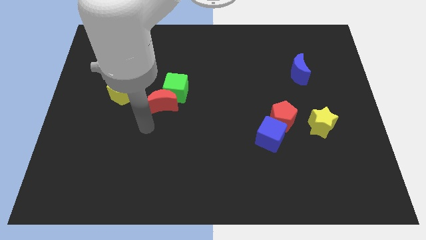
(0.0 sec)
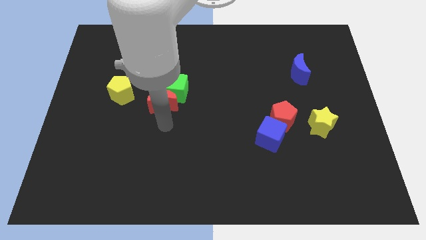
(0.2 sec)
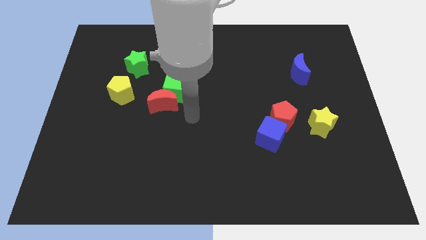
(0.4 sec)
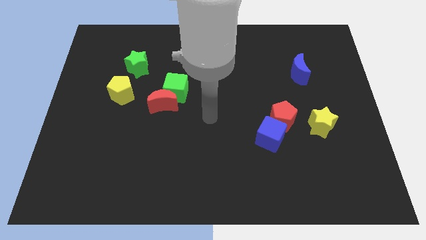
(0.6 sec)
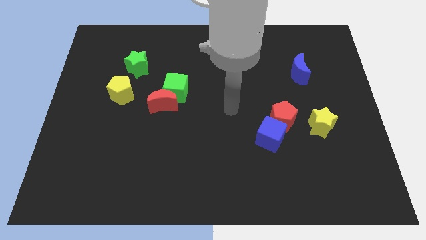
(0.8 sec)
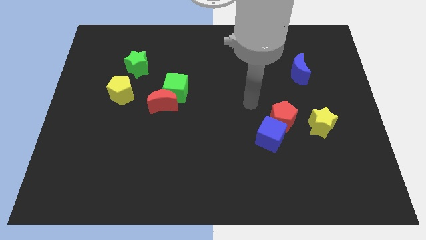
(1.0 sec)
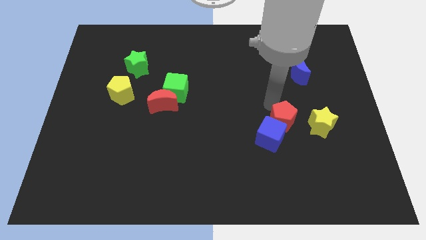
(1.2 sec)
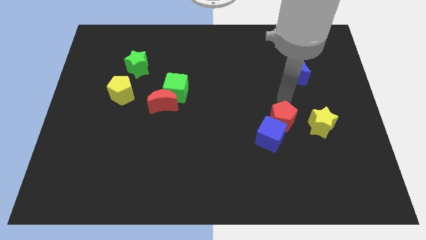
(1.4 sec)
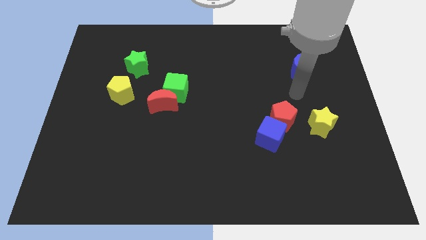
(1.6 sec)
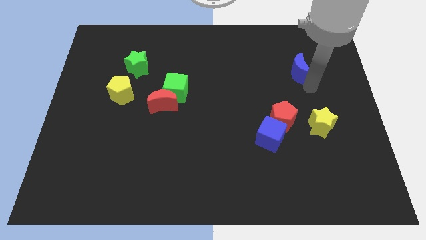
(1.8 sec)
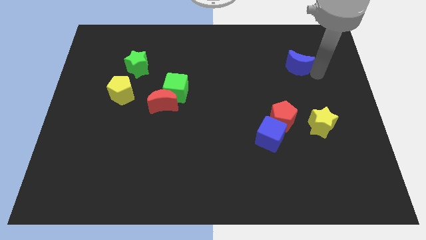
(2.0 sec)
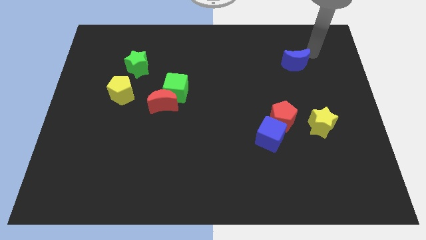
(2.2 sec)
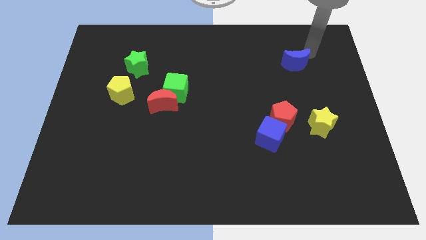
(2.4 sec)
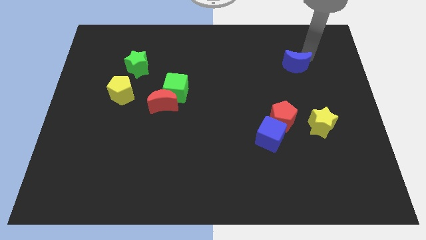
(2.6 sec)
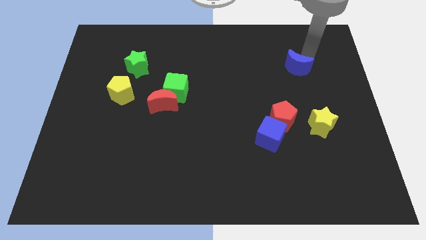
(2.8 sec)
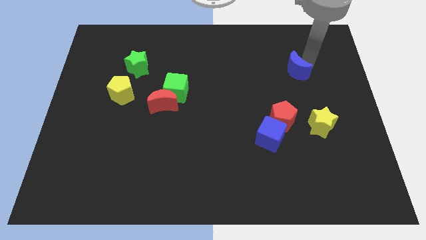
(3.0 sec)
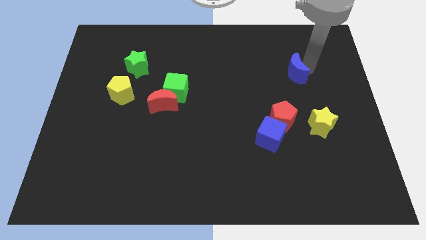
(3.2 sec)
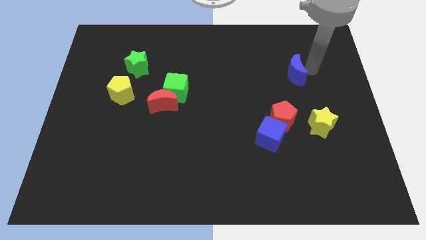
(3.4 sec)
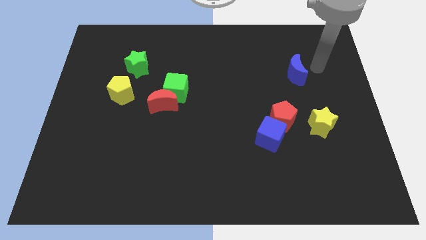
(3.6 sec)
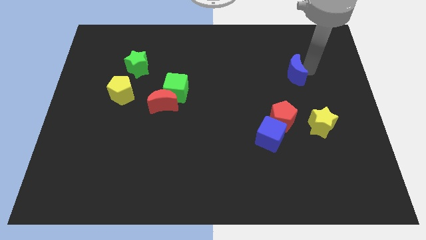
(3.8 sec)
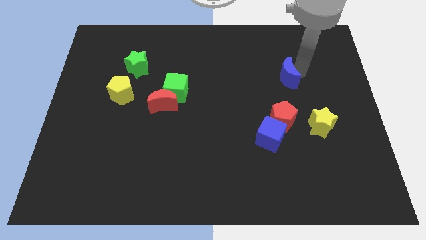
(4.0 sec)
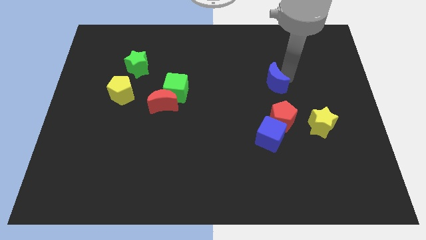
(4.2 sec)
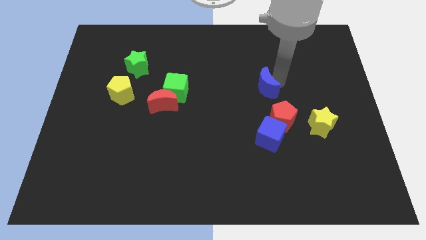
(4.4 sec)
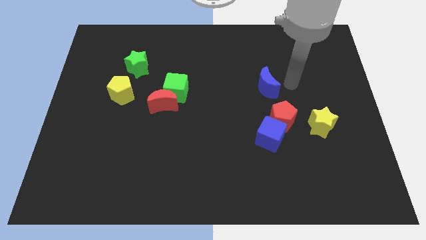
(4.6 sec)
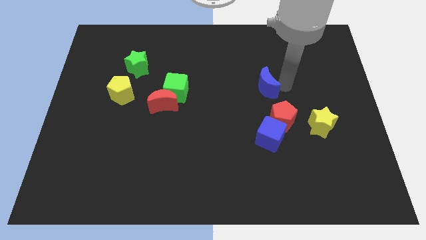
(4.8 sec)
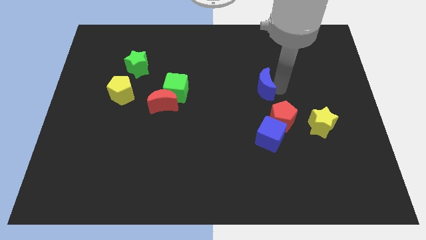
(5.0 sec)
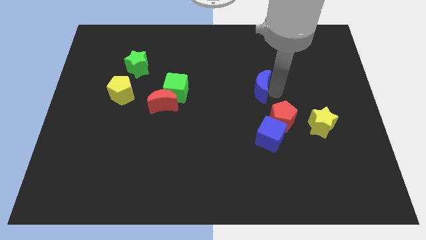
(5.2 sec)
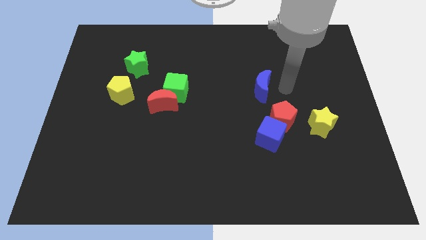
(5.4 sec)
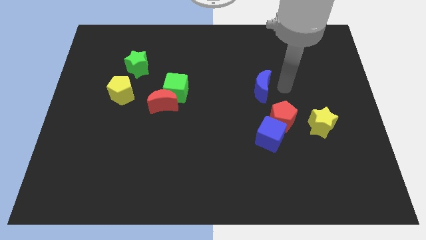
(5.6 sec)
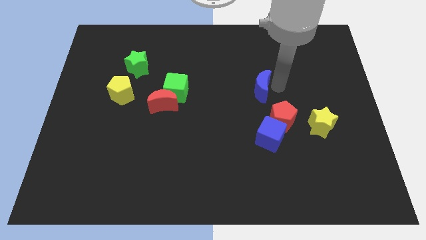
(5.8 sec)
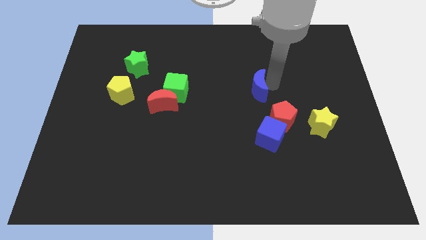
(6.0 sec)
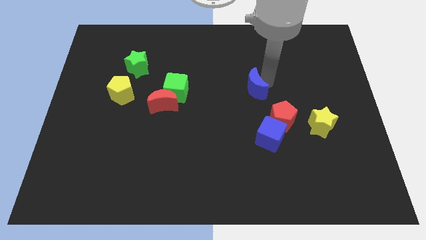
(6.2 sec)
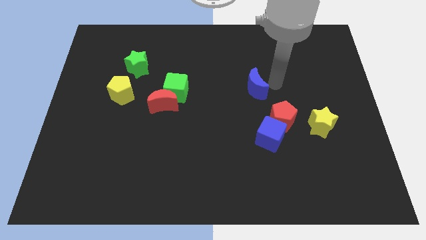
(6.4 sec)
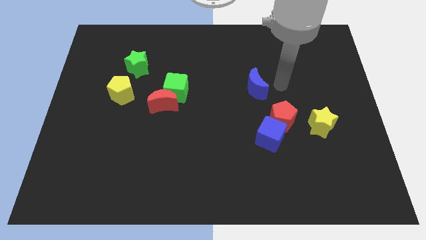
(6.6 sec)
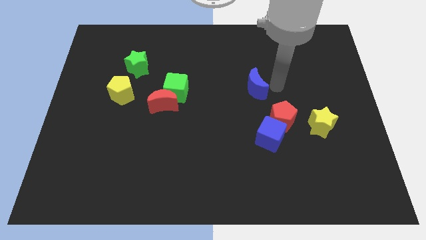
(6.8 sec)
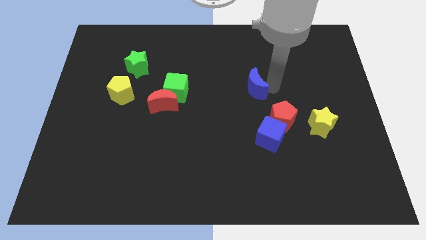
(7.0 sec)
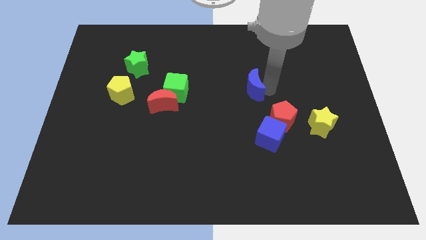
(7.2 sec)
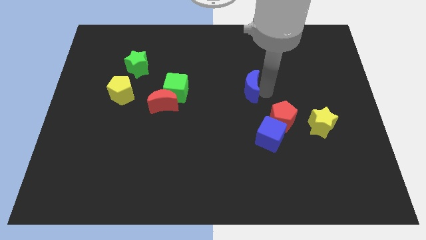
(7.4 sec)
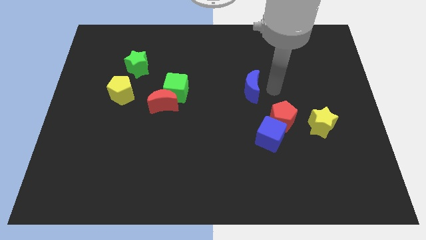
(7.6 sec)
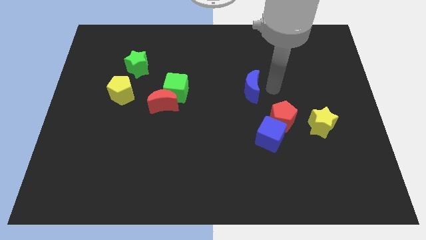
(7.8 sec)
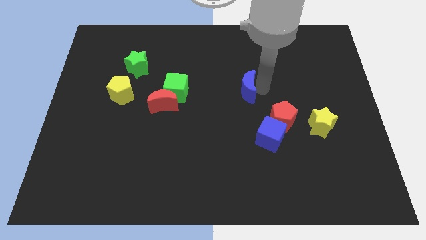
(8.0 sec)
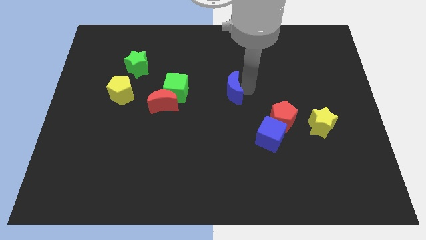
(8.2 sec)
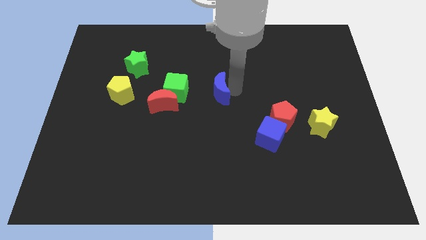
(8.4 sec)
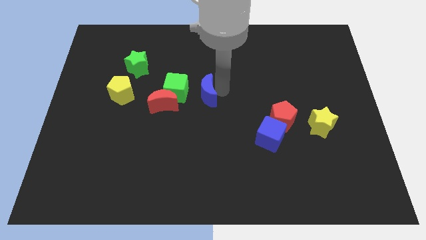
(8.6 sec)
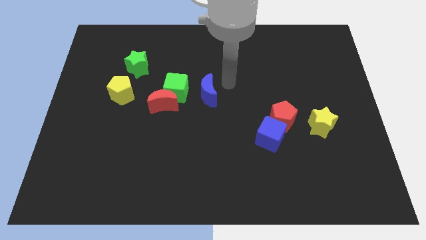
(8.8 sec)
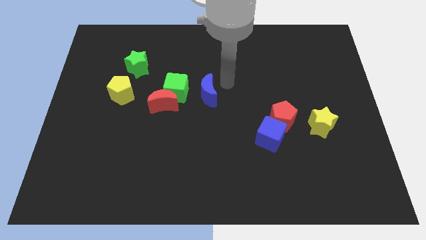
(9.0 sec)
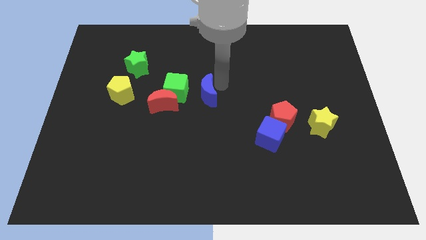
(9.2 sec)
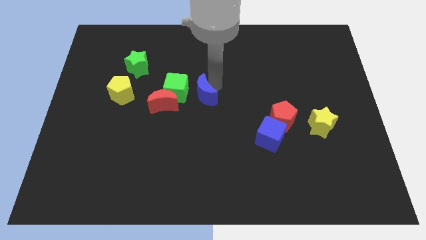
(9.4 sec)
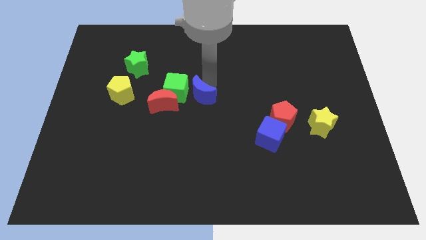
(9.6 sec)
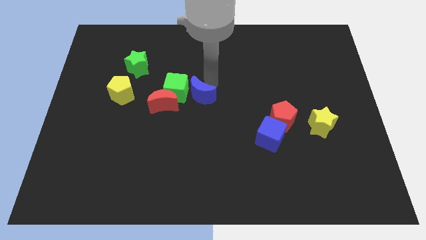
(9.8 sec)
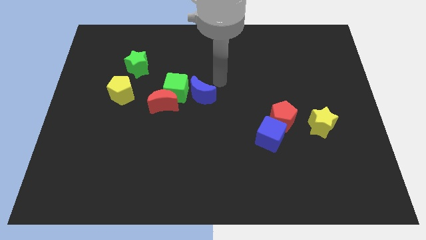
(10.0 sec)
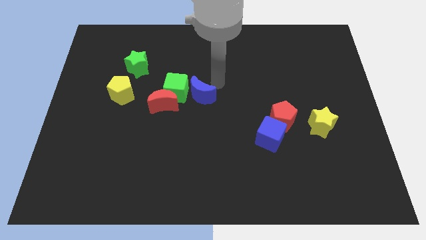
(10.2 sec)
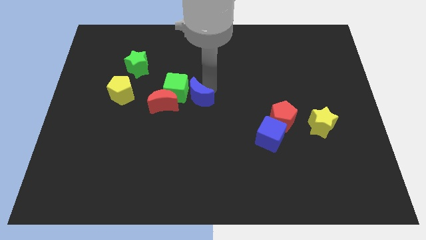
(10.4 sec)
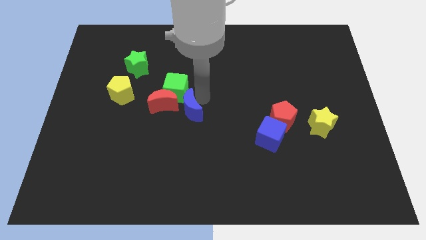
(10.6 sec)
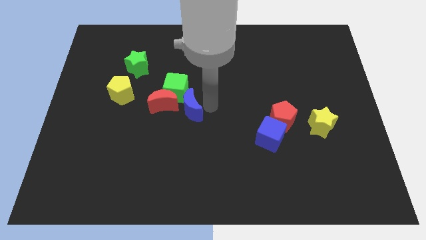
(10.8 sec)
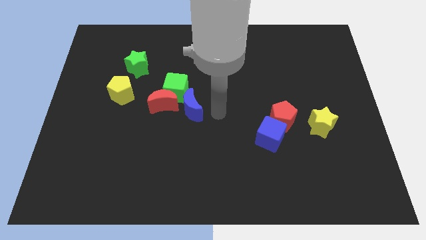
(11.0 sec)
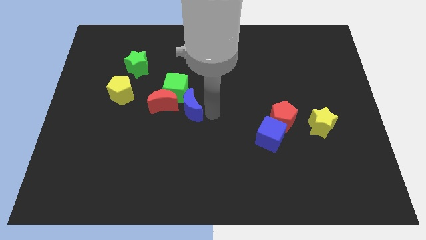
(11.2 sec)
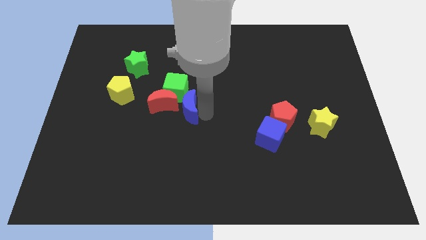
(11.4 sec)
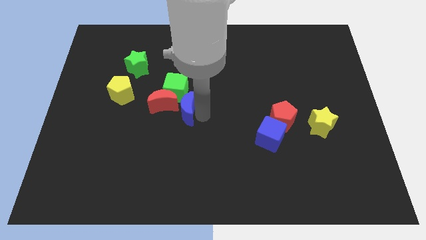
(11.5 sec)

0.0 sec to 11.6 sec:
move the blue moon to the red moon

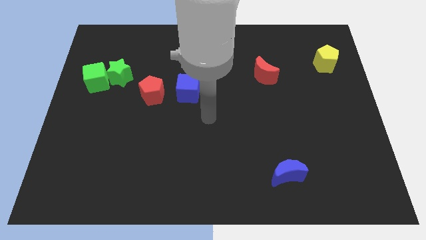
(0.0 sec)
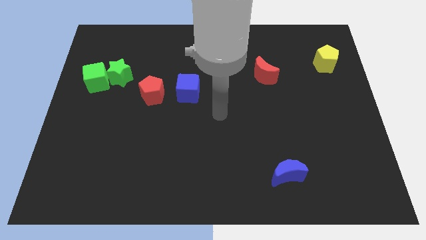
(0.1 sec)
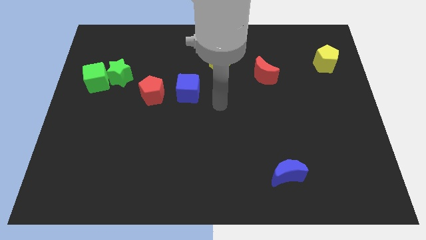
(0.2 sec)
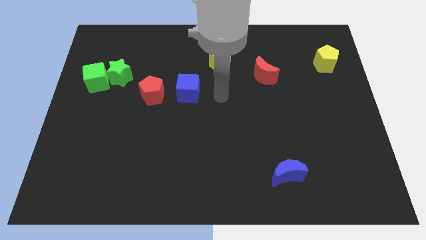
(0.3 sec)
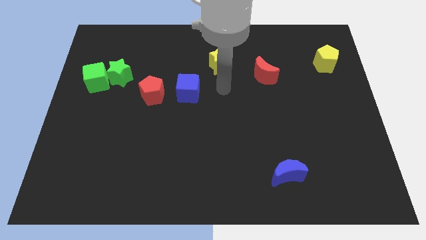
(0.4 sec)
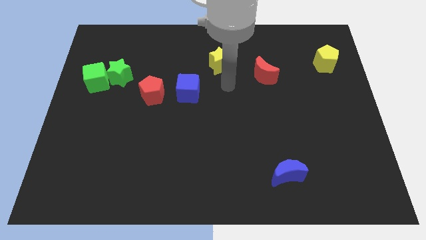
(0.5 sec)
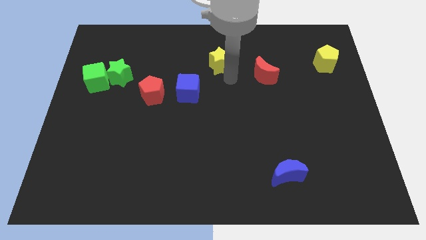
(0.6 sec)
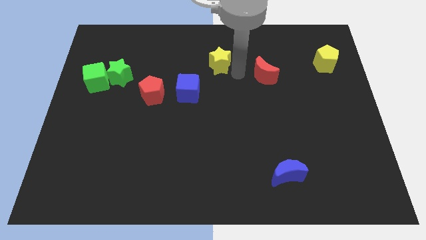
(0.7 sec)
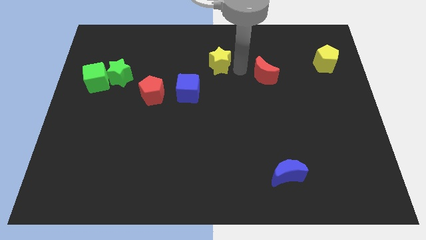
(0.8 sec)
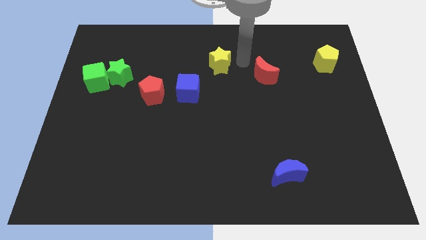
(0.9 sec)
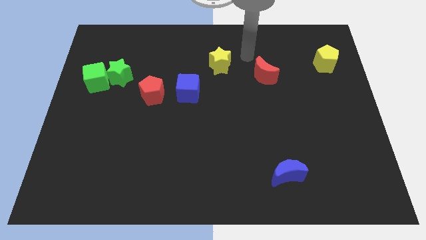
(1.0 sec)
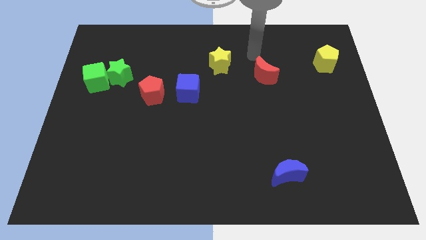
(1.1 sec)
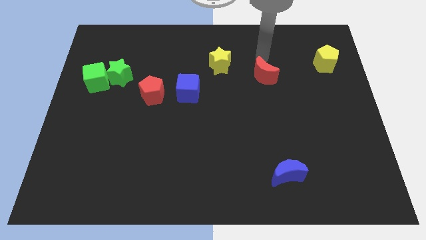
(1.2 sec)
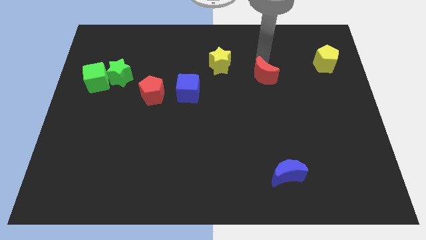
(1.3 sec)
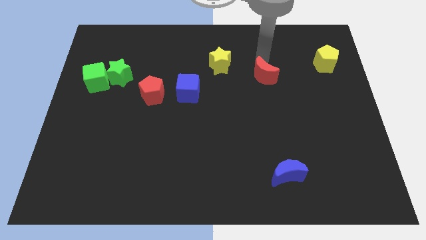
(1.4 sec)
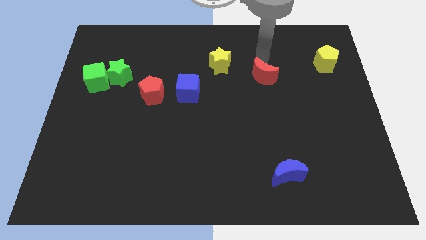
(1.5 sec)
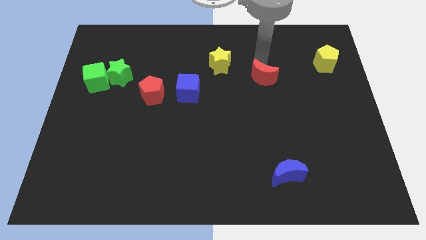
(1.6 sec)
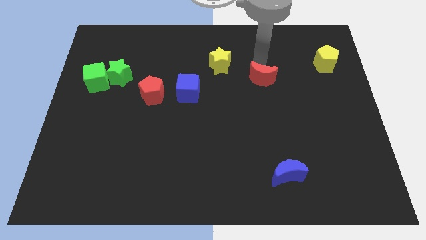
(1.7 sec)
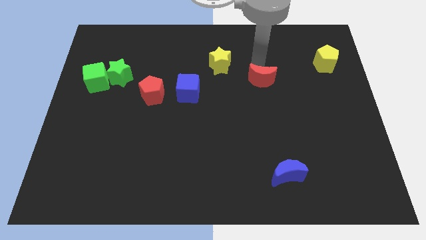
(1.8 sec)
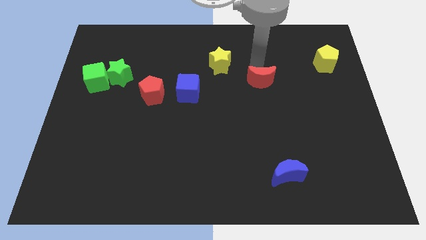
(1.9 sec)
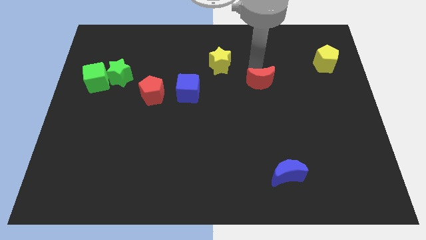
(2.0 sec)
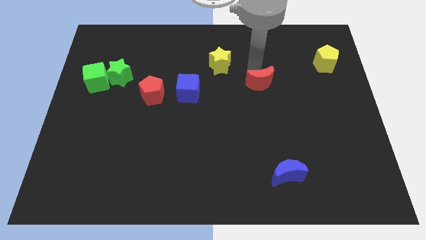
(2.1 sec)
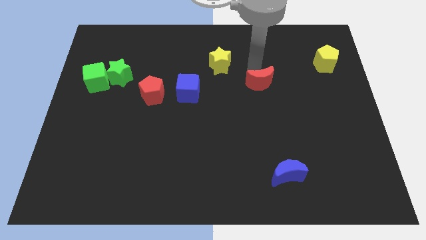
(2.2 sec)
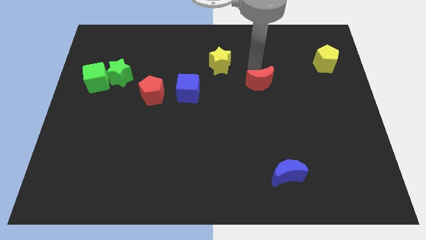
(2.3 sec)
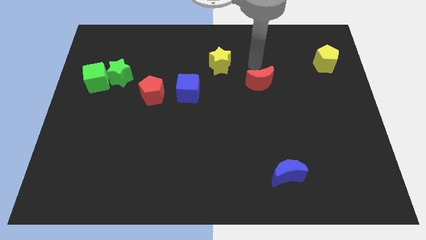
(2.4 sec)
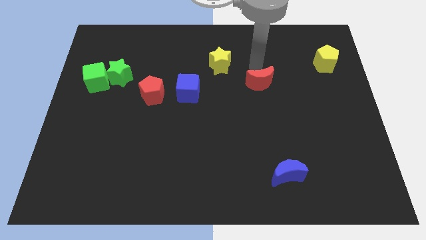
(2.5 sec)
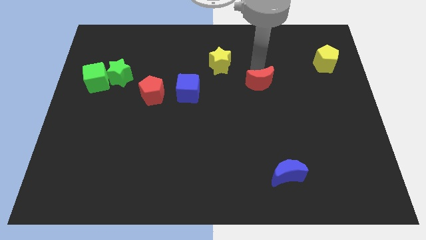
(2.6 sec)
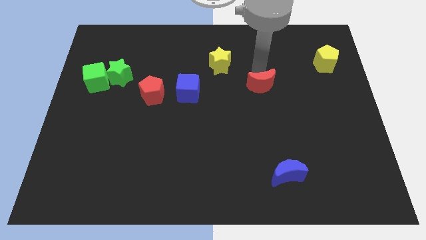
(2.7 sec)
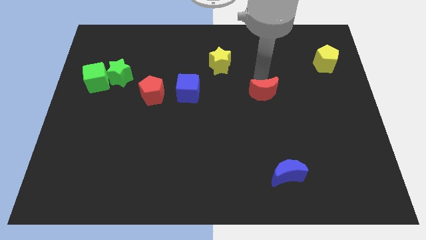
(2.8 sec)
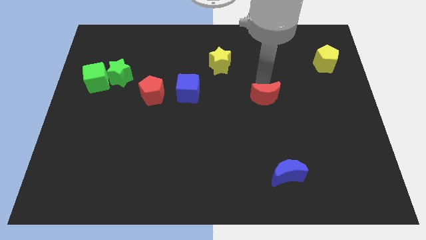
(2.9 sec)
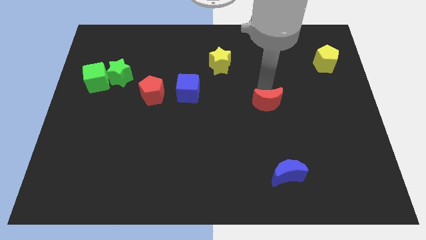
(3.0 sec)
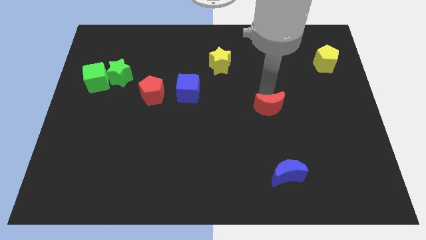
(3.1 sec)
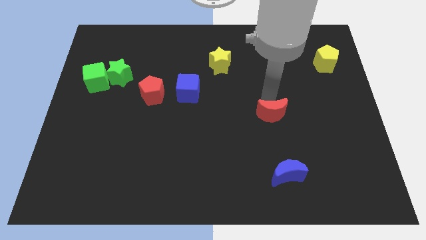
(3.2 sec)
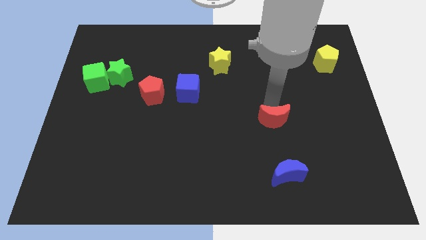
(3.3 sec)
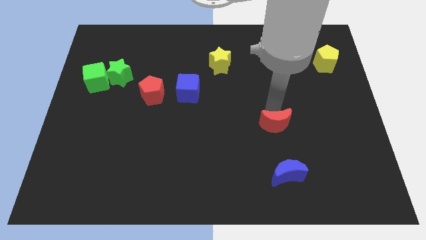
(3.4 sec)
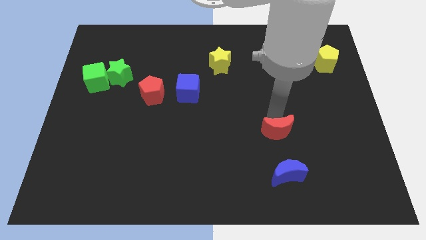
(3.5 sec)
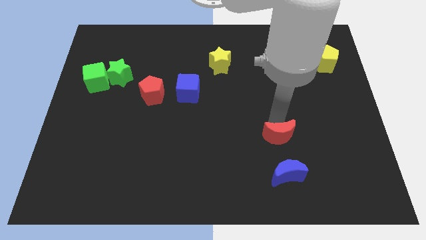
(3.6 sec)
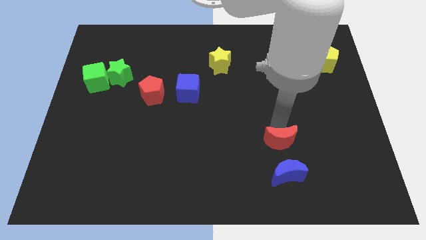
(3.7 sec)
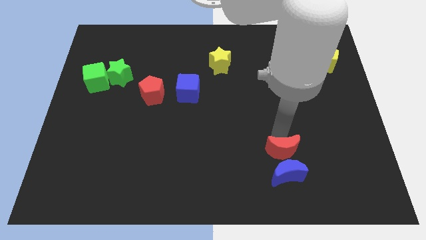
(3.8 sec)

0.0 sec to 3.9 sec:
put the red moon next to the blue moon
